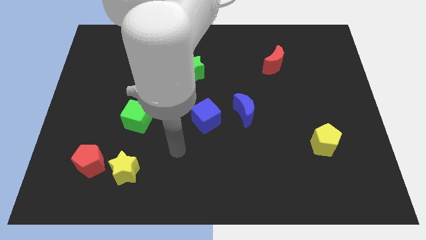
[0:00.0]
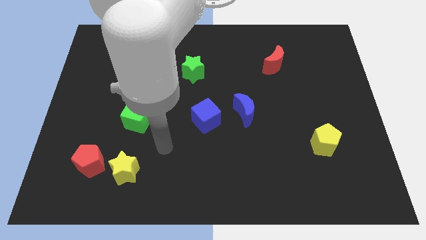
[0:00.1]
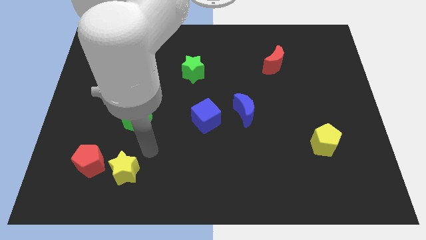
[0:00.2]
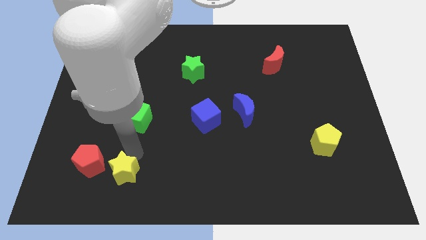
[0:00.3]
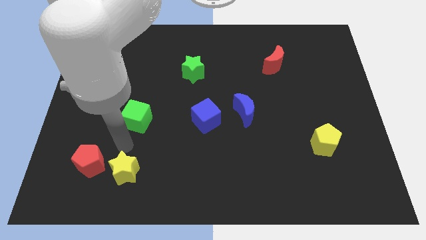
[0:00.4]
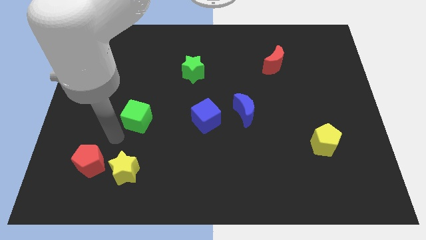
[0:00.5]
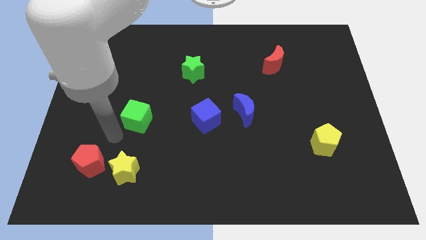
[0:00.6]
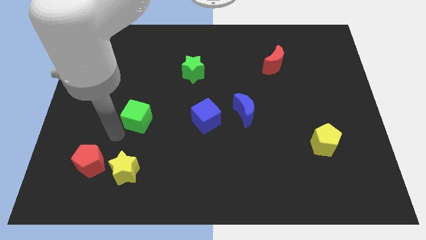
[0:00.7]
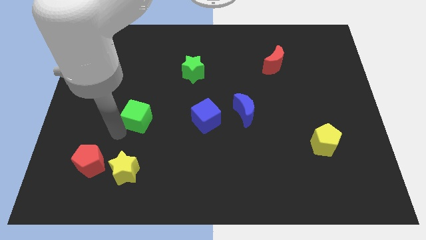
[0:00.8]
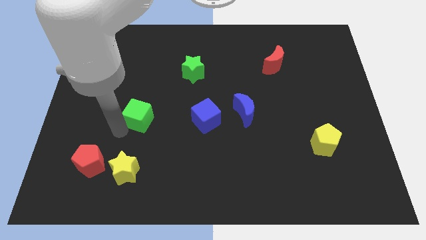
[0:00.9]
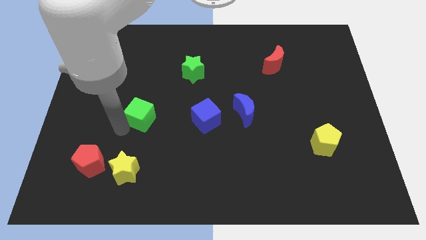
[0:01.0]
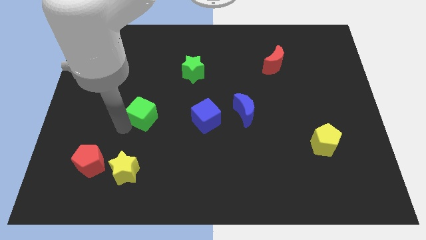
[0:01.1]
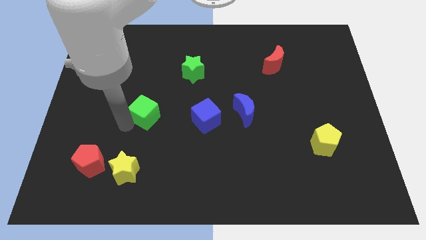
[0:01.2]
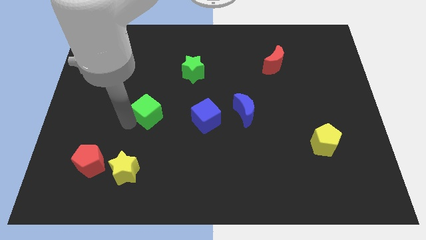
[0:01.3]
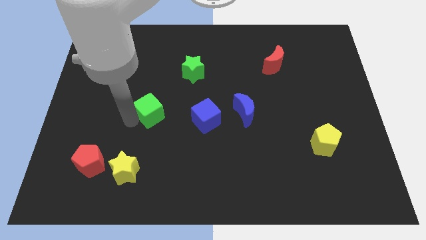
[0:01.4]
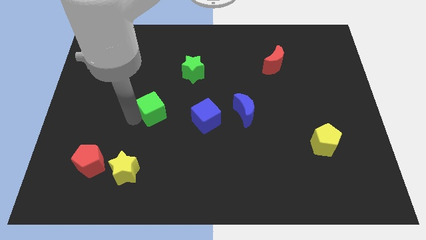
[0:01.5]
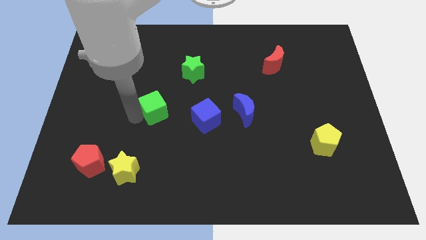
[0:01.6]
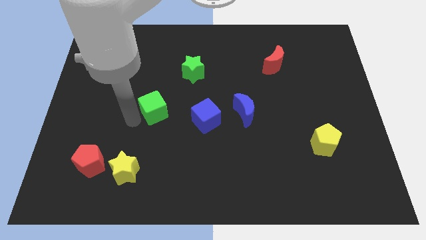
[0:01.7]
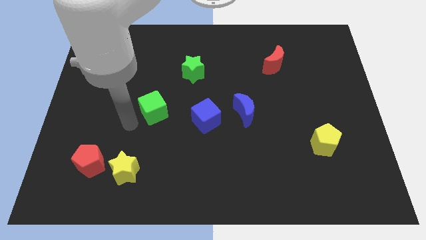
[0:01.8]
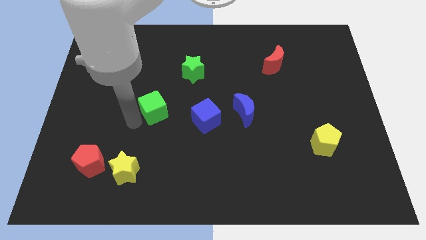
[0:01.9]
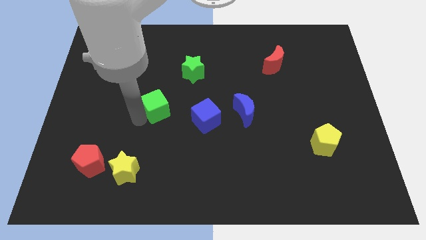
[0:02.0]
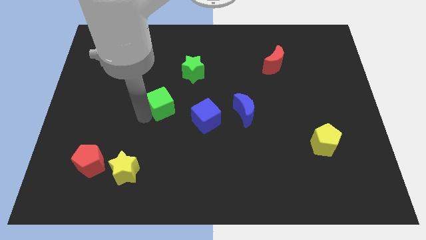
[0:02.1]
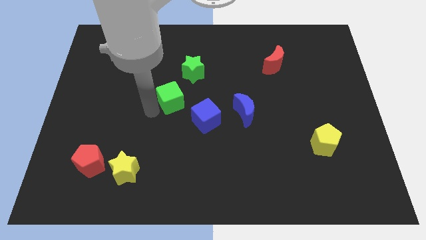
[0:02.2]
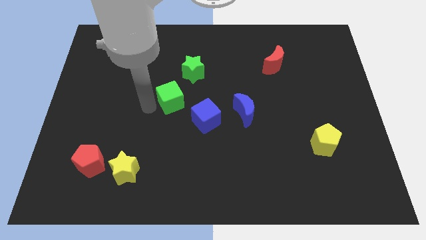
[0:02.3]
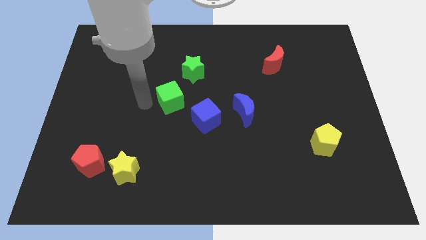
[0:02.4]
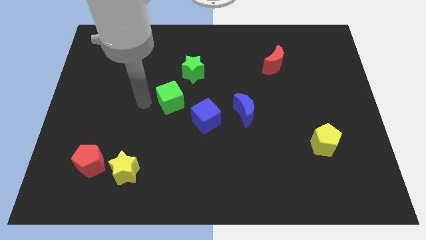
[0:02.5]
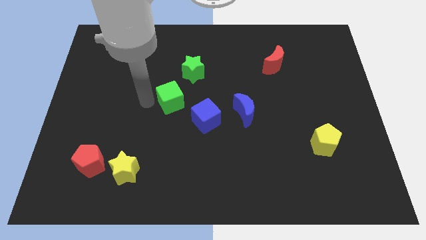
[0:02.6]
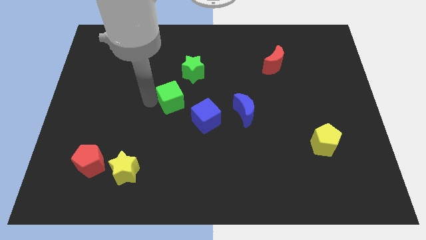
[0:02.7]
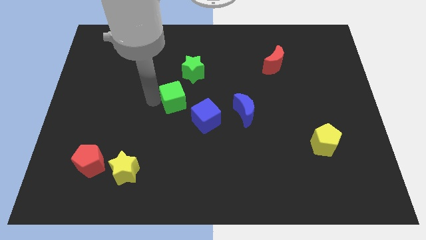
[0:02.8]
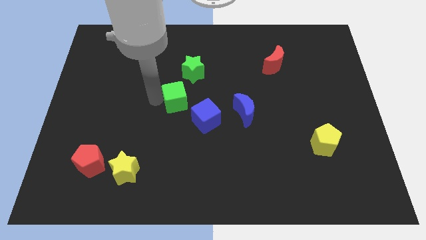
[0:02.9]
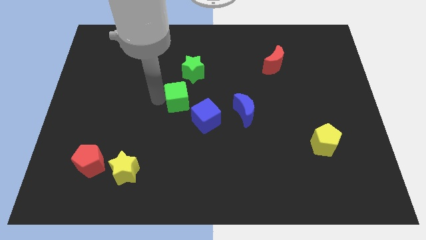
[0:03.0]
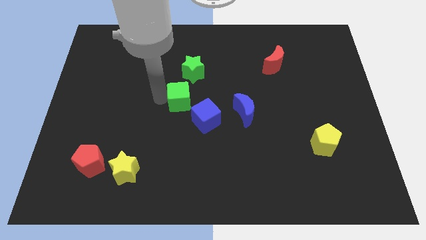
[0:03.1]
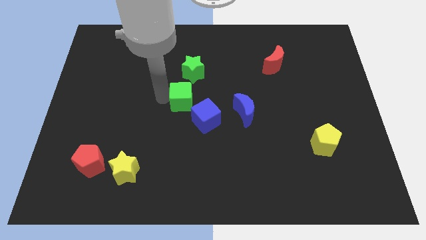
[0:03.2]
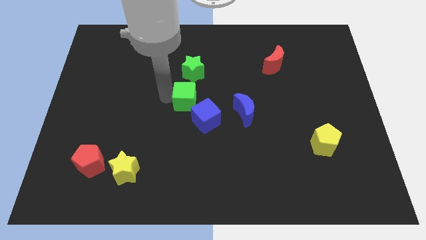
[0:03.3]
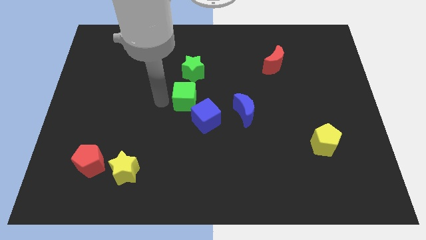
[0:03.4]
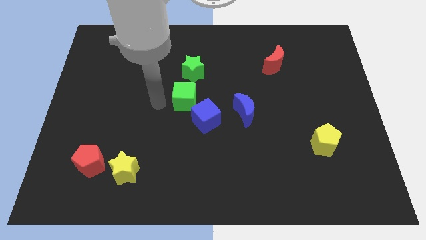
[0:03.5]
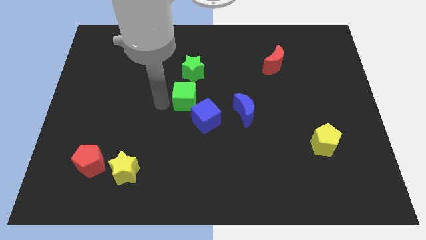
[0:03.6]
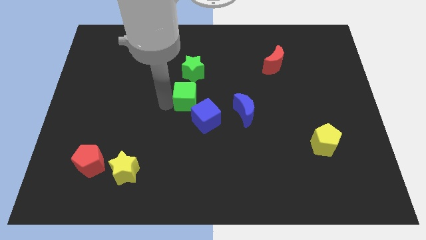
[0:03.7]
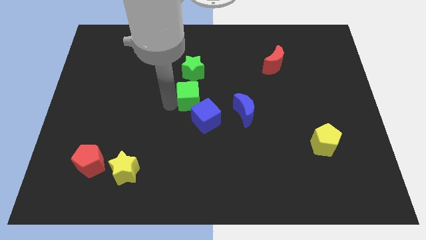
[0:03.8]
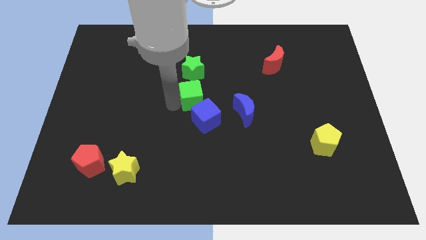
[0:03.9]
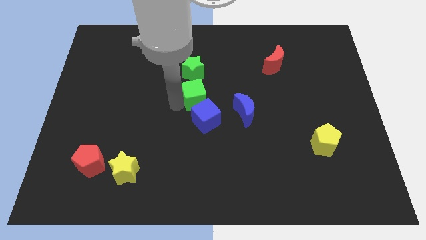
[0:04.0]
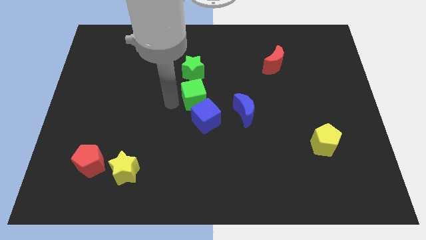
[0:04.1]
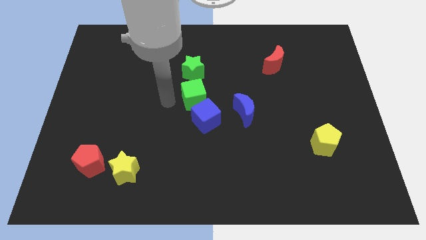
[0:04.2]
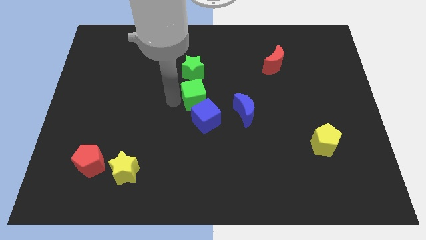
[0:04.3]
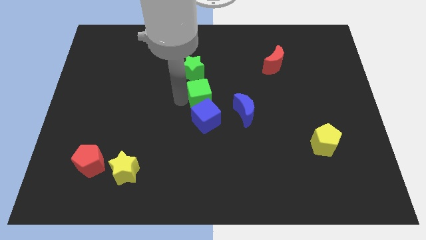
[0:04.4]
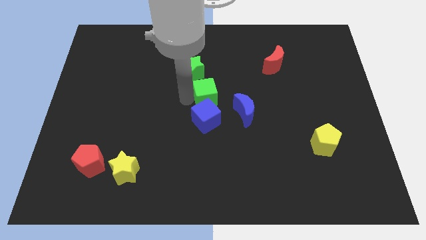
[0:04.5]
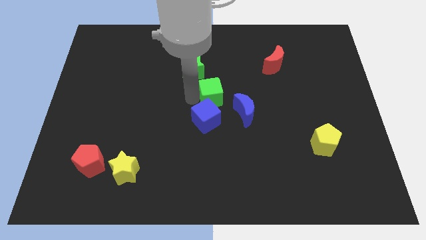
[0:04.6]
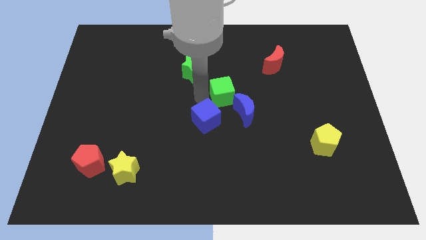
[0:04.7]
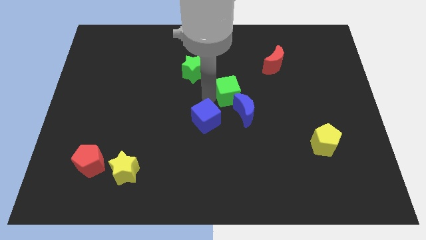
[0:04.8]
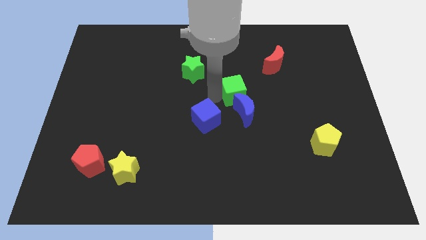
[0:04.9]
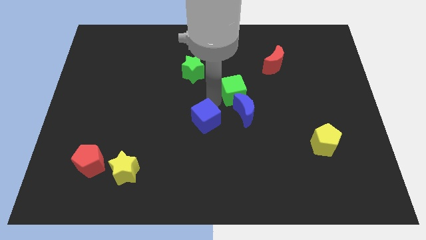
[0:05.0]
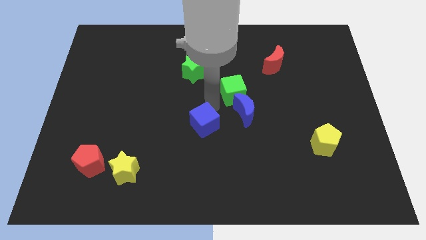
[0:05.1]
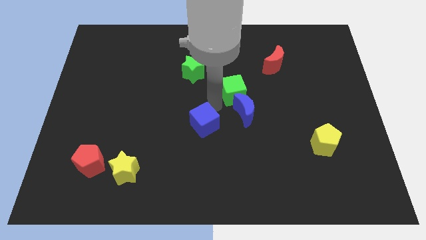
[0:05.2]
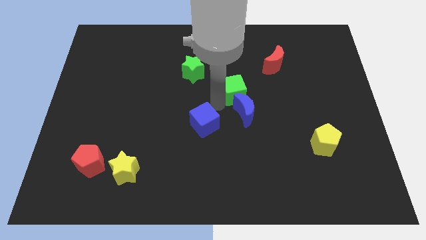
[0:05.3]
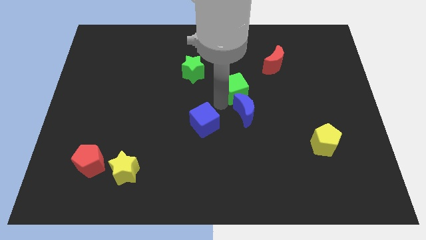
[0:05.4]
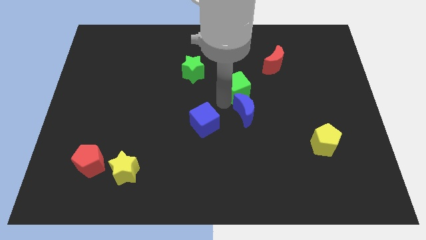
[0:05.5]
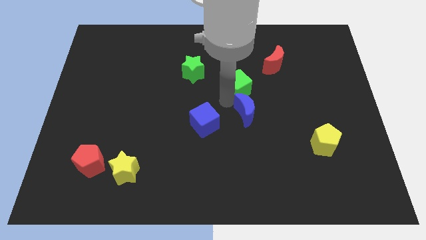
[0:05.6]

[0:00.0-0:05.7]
move the green cube diagonally down and to the left of the red moon

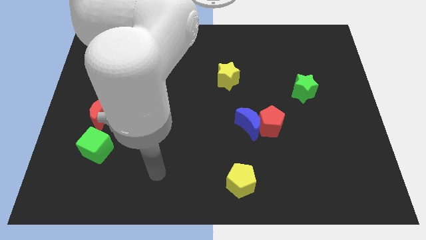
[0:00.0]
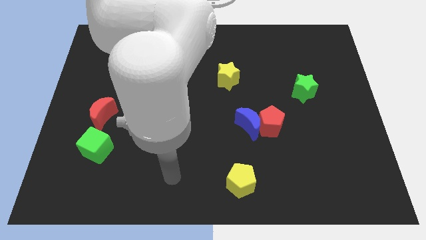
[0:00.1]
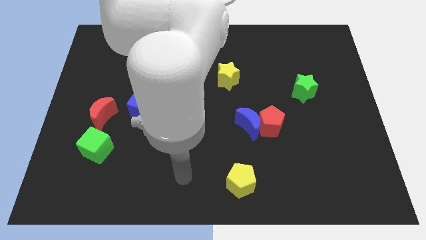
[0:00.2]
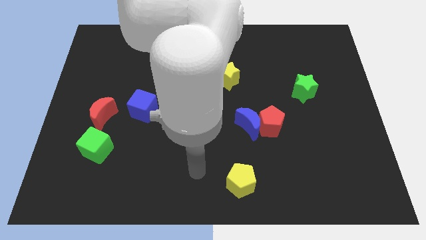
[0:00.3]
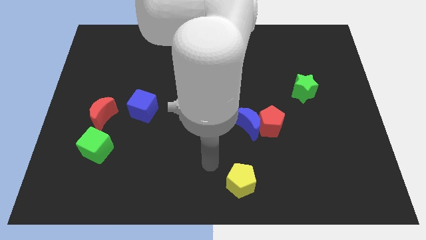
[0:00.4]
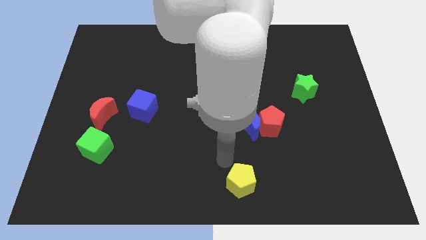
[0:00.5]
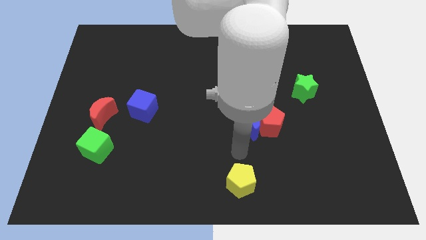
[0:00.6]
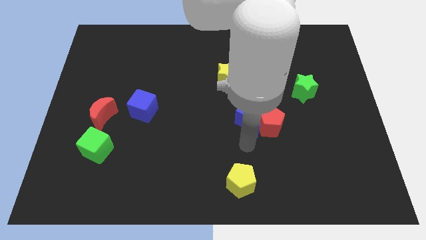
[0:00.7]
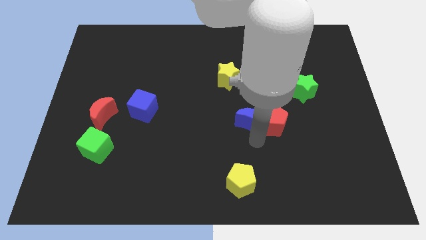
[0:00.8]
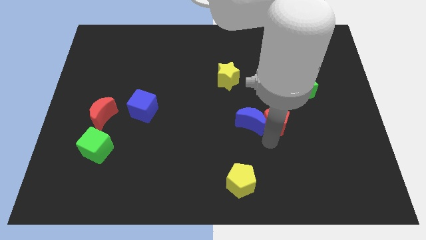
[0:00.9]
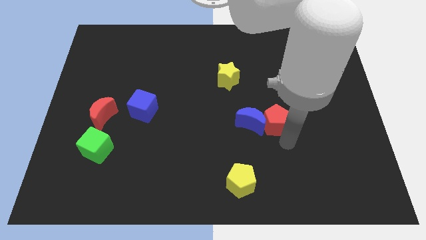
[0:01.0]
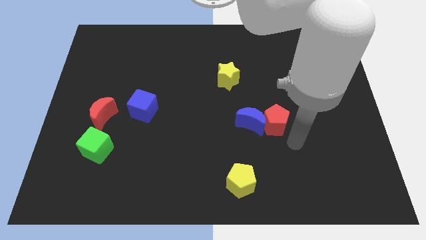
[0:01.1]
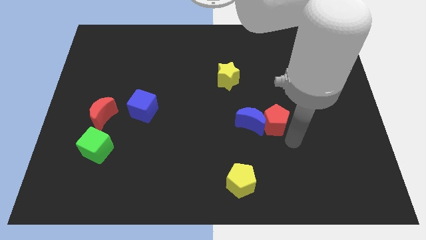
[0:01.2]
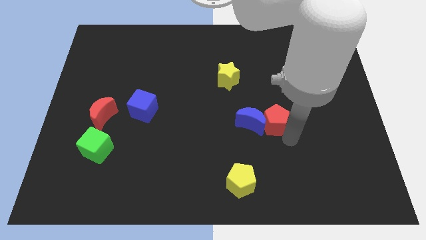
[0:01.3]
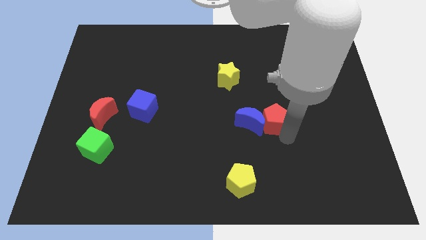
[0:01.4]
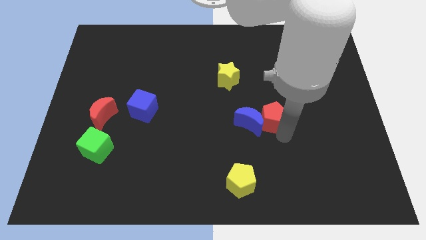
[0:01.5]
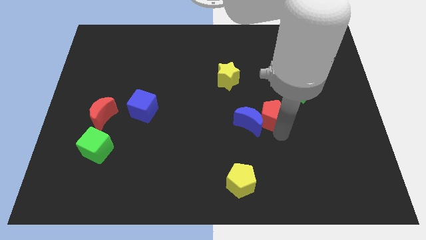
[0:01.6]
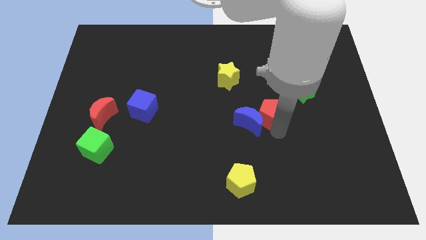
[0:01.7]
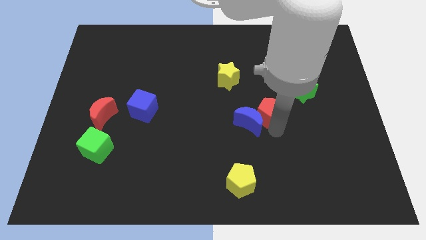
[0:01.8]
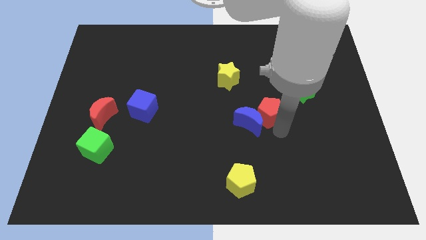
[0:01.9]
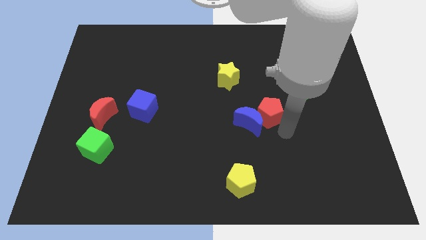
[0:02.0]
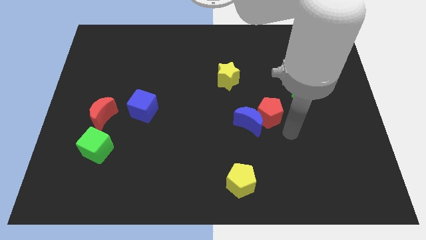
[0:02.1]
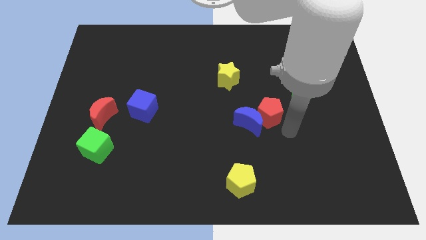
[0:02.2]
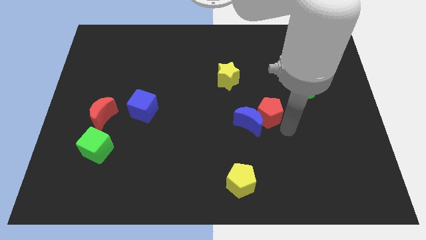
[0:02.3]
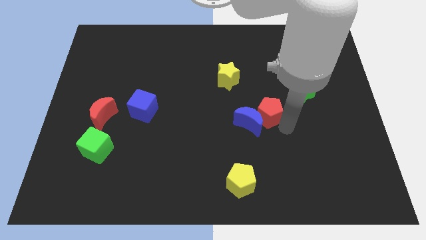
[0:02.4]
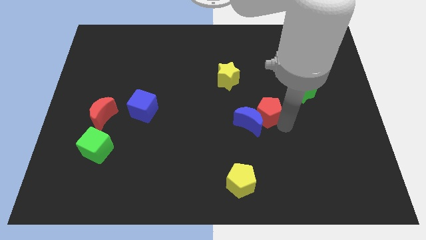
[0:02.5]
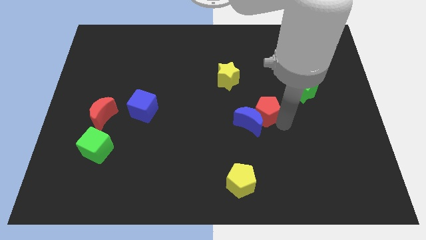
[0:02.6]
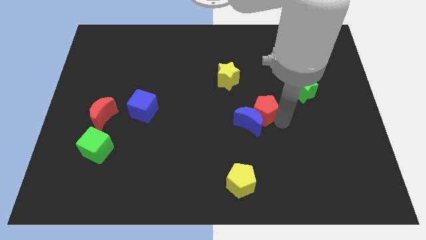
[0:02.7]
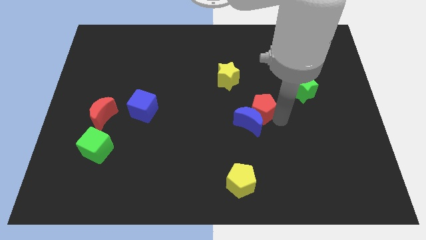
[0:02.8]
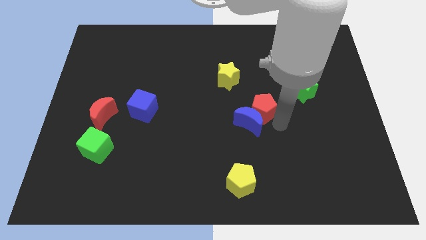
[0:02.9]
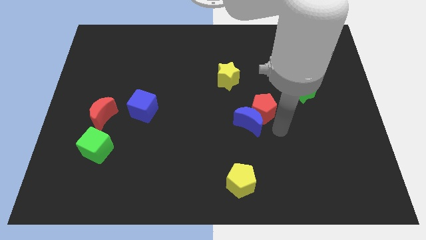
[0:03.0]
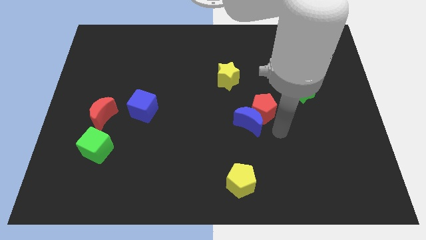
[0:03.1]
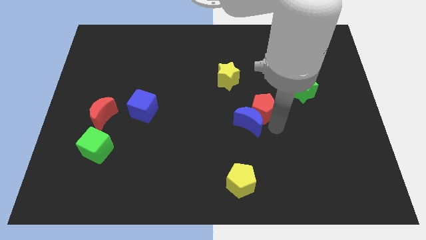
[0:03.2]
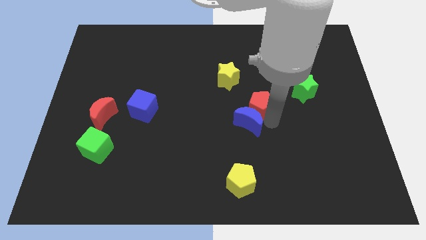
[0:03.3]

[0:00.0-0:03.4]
push the red pentagon diagonally down and to the right of the yellow star
